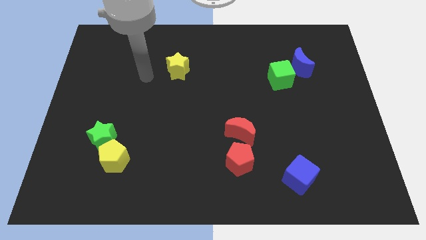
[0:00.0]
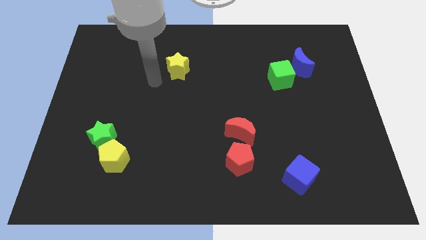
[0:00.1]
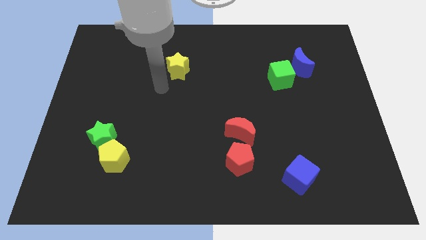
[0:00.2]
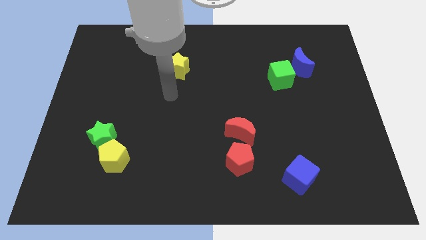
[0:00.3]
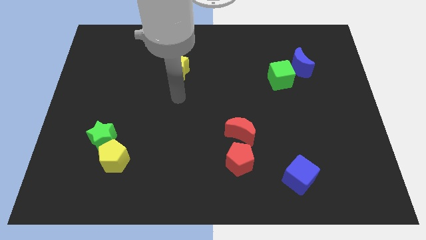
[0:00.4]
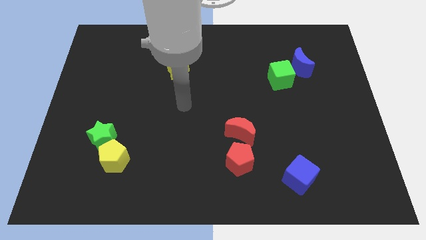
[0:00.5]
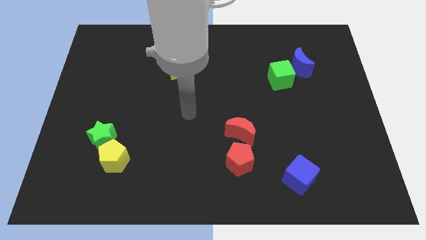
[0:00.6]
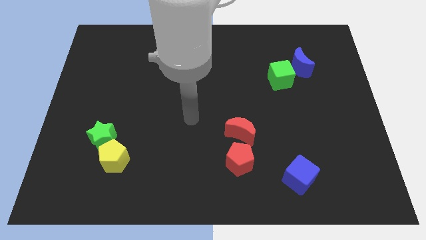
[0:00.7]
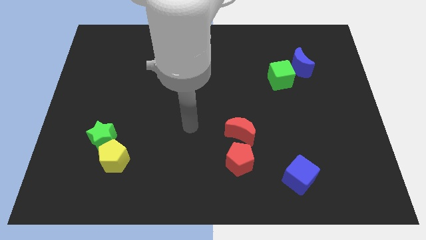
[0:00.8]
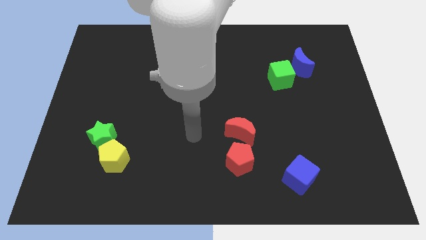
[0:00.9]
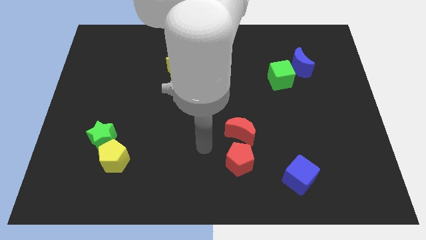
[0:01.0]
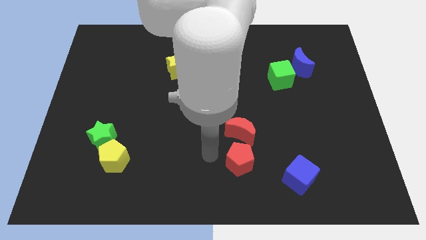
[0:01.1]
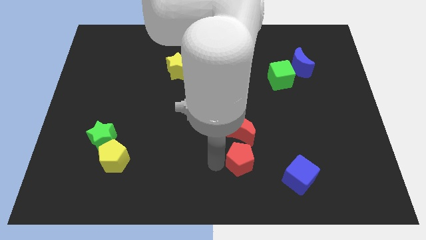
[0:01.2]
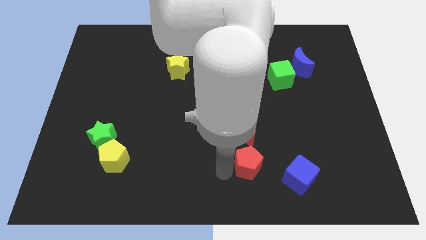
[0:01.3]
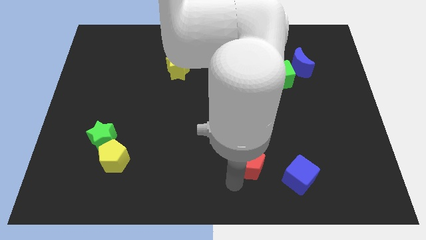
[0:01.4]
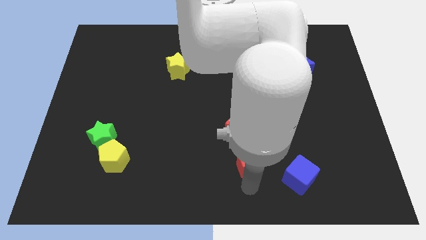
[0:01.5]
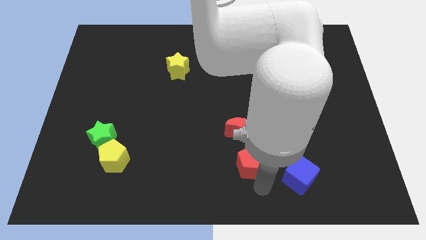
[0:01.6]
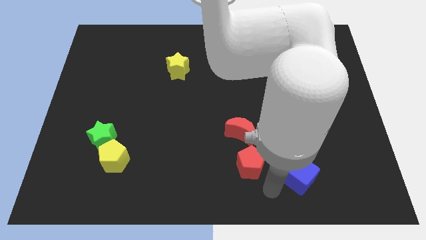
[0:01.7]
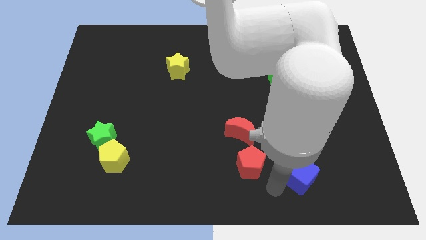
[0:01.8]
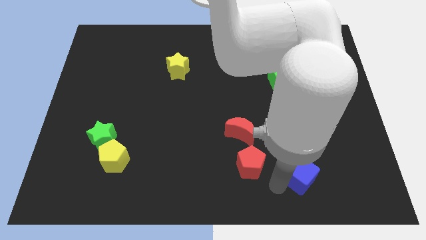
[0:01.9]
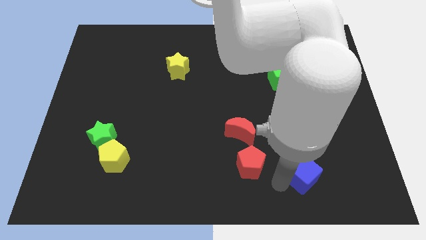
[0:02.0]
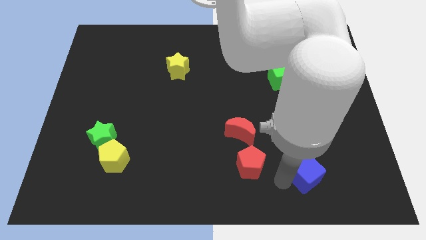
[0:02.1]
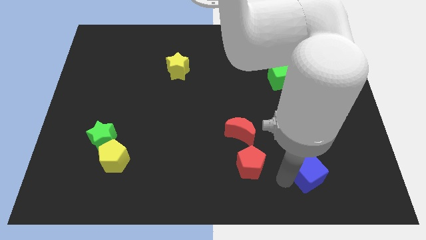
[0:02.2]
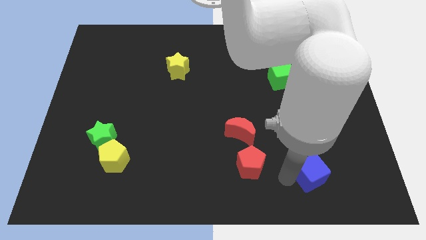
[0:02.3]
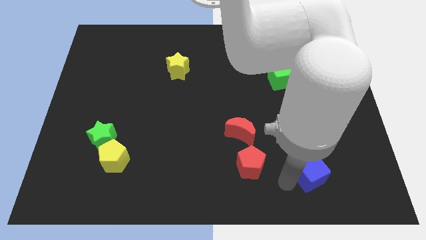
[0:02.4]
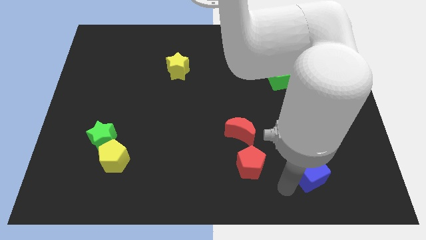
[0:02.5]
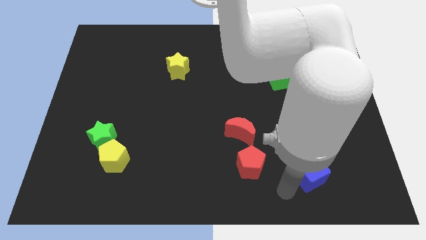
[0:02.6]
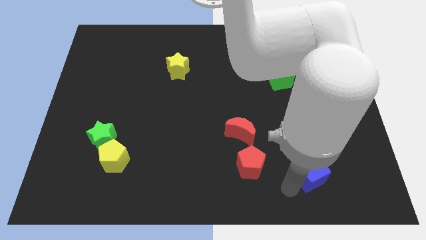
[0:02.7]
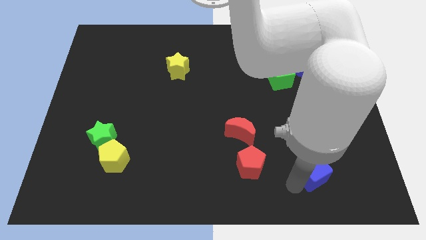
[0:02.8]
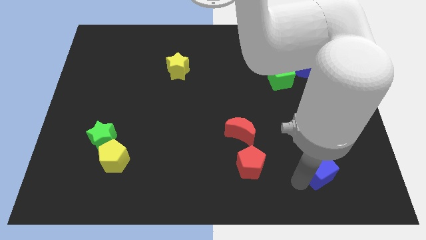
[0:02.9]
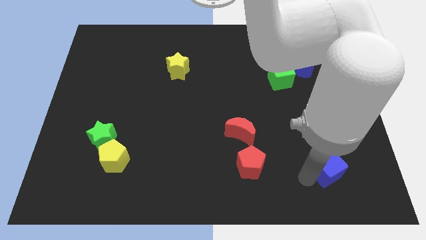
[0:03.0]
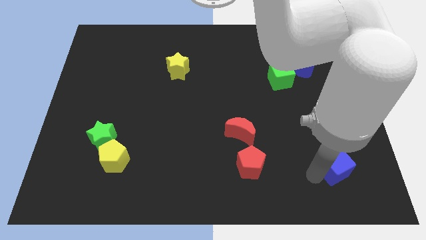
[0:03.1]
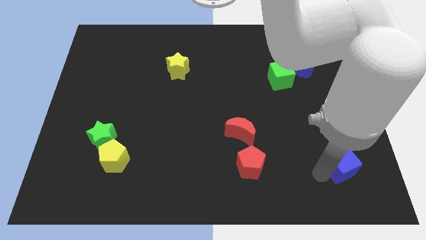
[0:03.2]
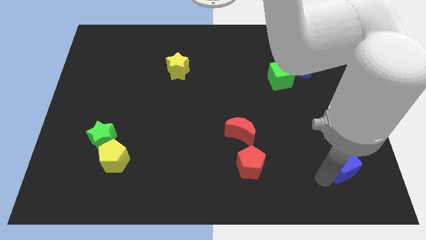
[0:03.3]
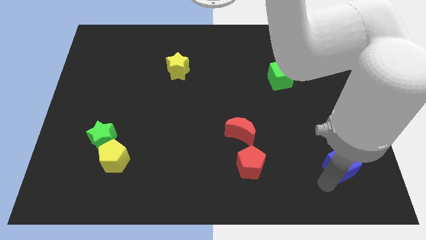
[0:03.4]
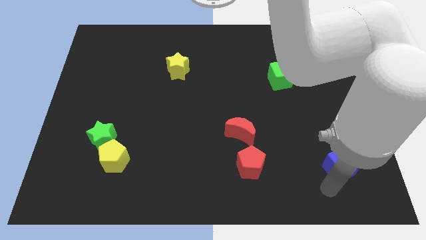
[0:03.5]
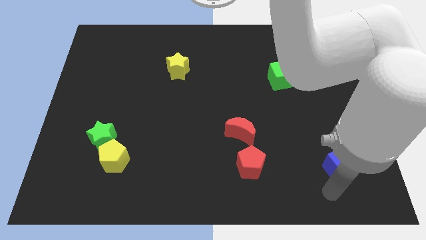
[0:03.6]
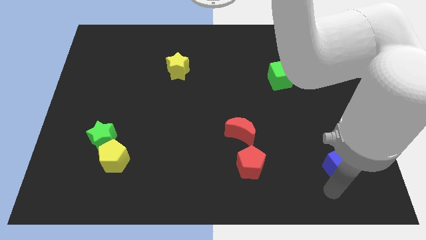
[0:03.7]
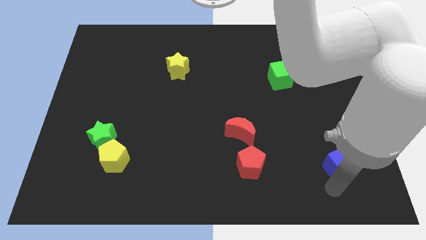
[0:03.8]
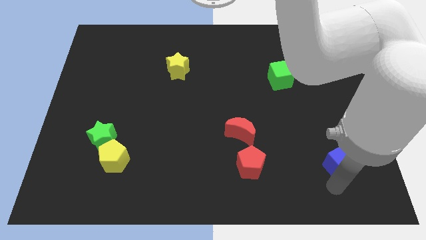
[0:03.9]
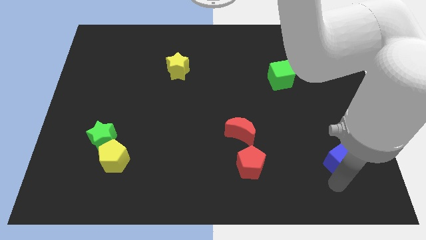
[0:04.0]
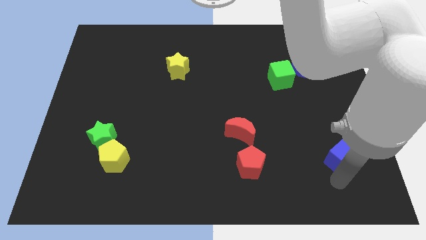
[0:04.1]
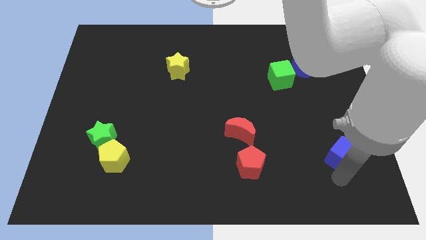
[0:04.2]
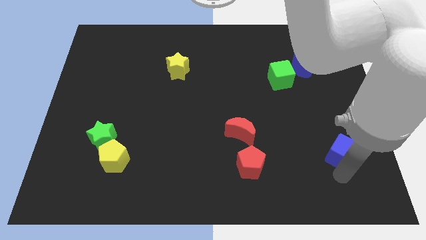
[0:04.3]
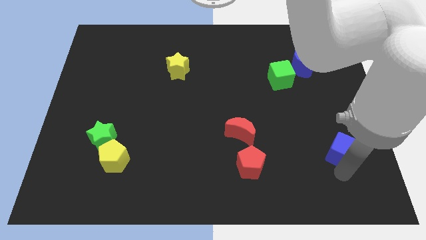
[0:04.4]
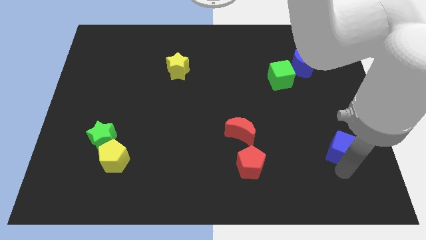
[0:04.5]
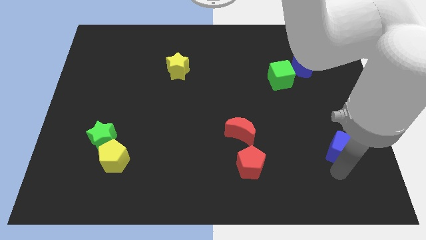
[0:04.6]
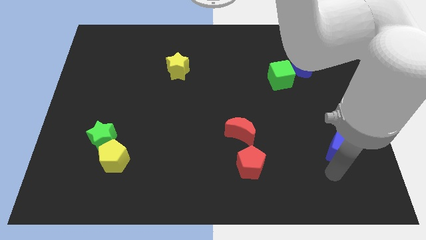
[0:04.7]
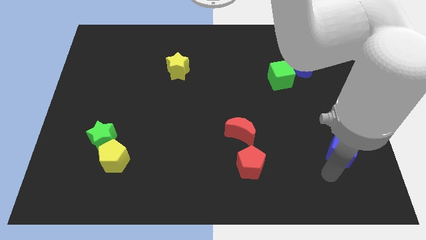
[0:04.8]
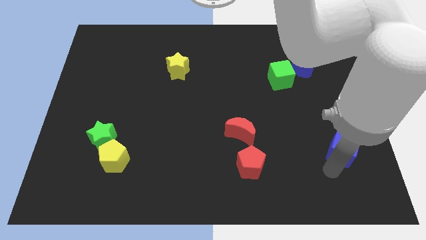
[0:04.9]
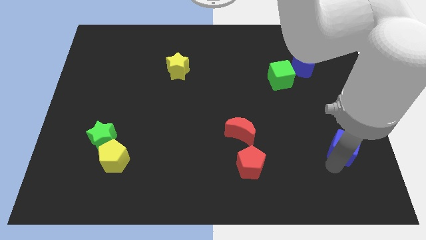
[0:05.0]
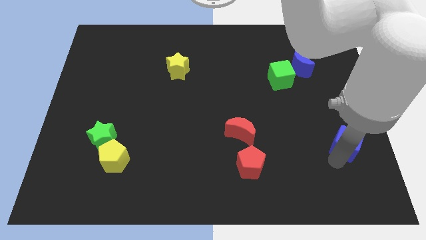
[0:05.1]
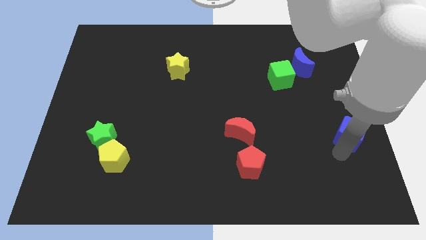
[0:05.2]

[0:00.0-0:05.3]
move the blue cube to the center right

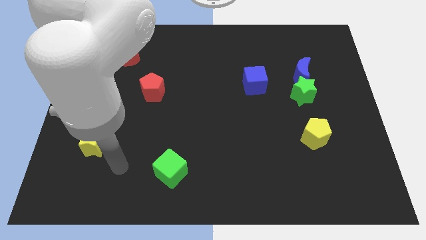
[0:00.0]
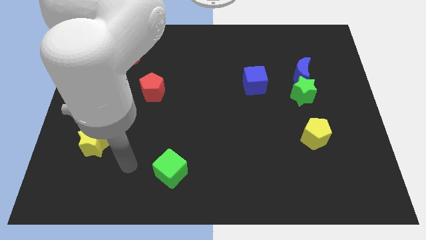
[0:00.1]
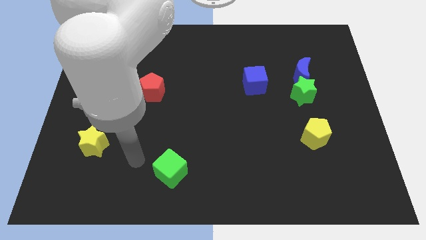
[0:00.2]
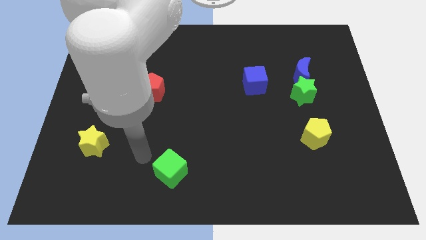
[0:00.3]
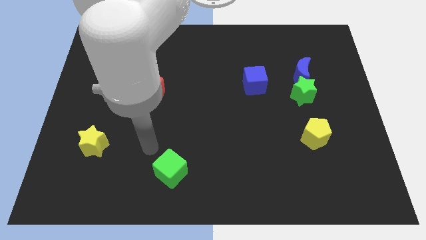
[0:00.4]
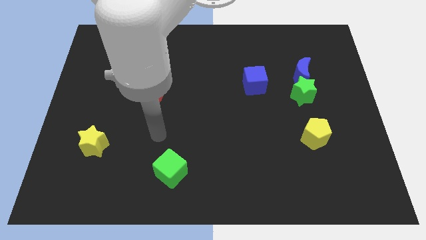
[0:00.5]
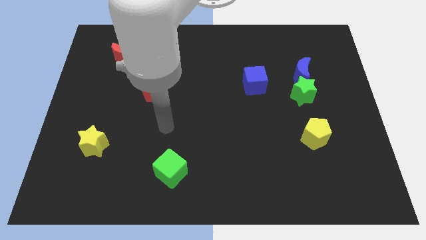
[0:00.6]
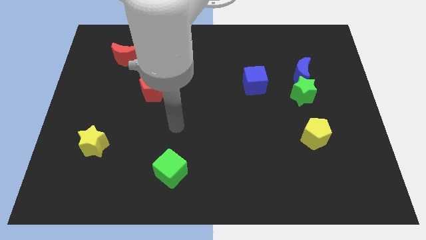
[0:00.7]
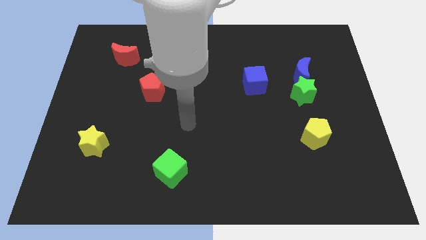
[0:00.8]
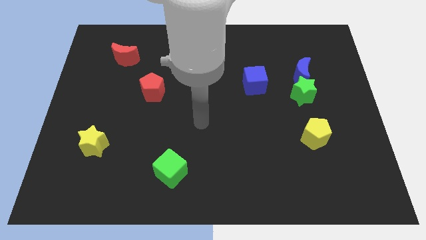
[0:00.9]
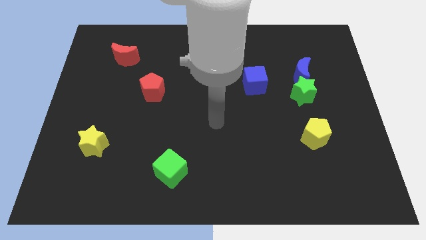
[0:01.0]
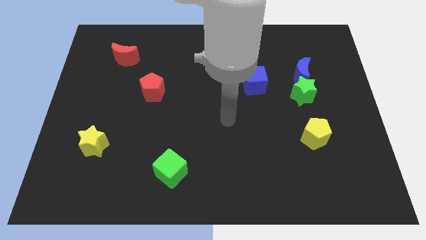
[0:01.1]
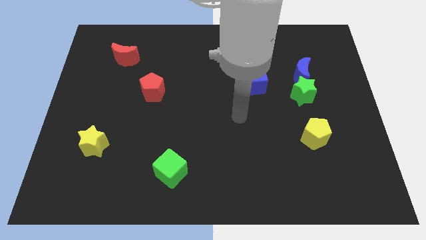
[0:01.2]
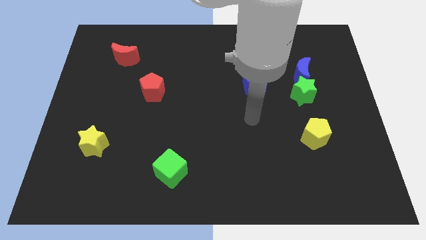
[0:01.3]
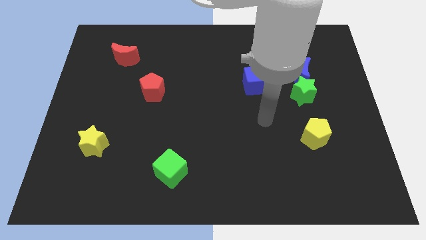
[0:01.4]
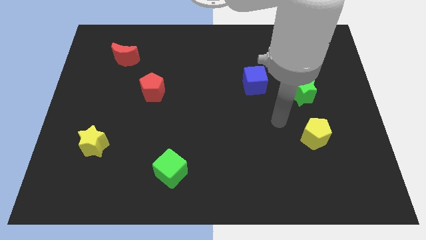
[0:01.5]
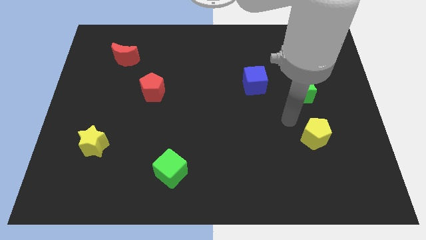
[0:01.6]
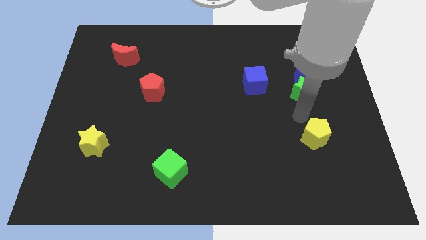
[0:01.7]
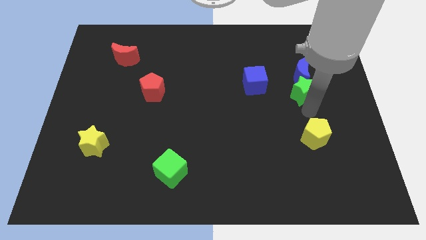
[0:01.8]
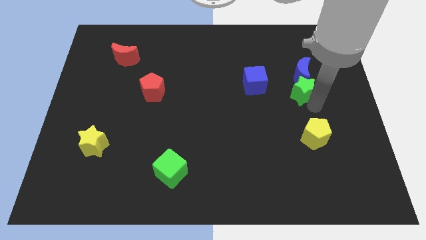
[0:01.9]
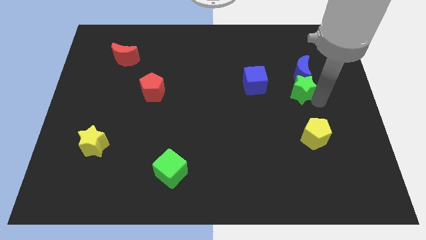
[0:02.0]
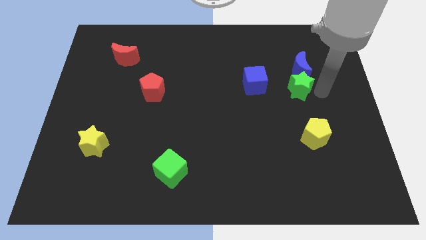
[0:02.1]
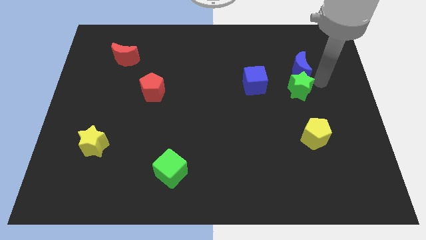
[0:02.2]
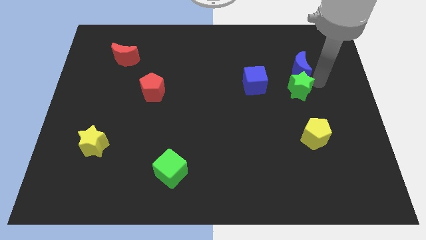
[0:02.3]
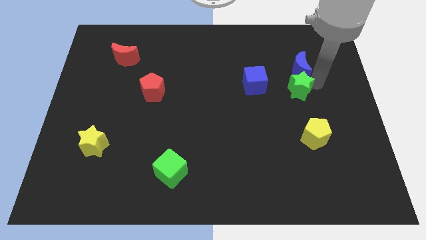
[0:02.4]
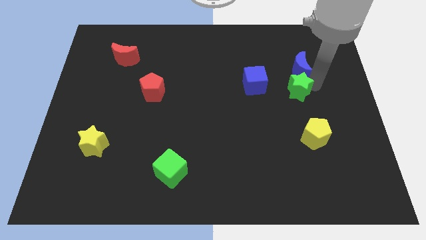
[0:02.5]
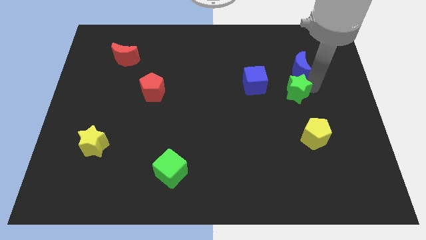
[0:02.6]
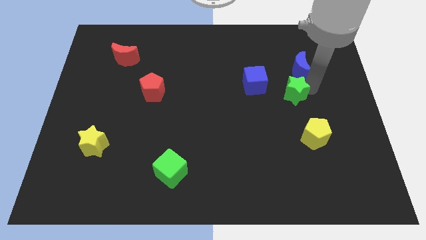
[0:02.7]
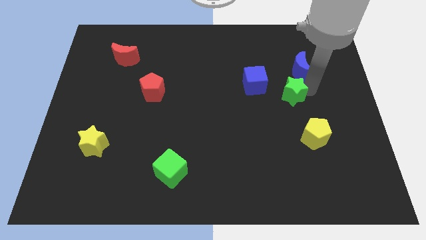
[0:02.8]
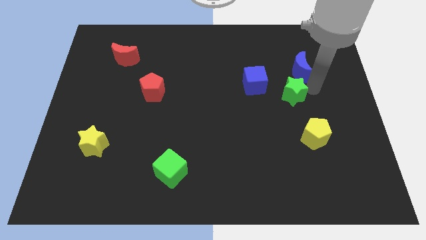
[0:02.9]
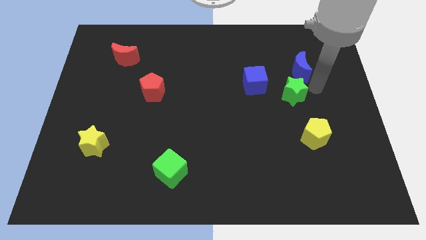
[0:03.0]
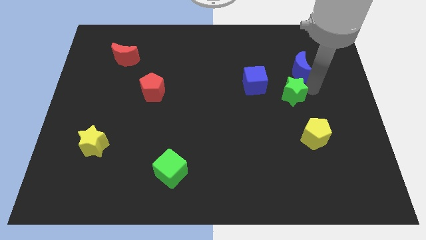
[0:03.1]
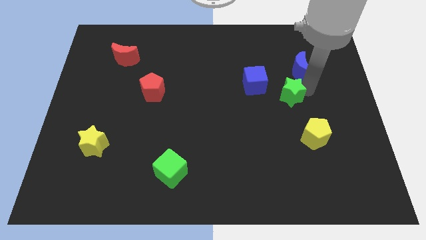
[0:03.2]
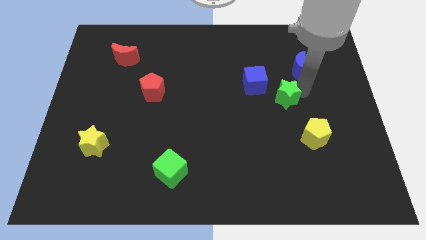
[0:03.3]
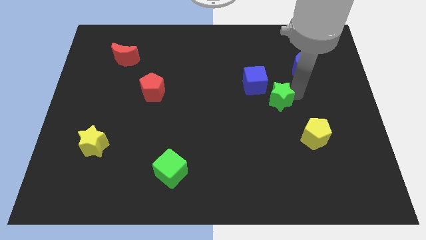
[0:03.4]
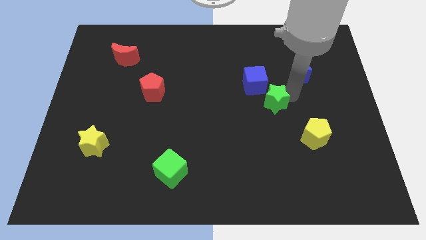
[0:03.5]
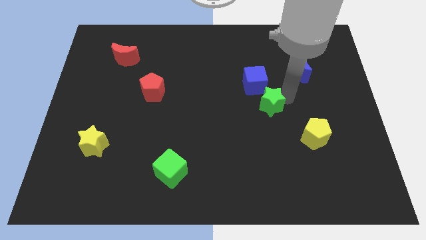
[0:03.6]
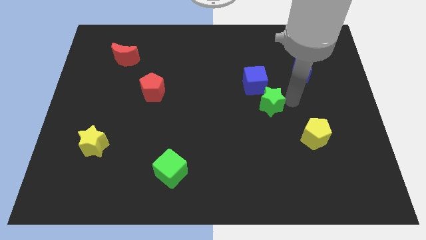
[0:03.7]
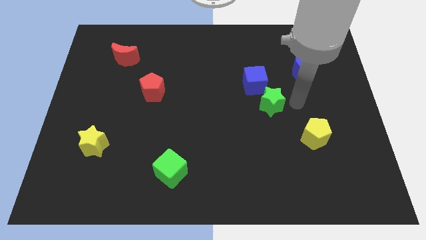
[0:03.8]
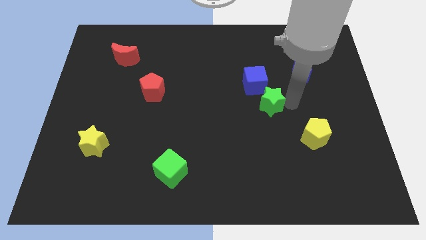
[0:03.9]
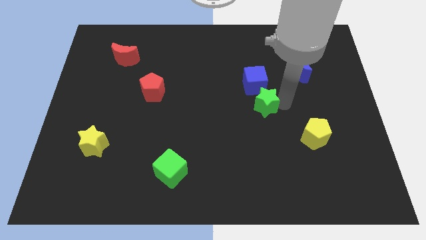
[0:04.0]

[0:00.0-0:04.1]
put the green star to the middle of the board
